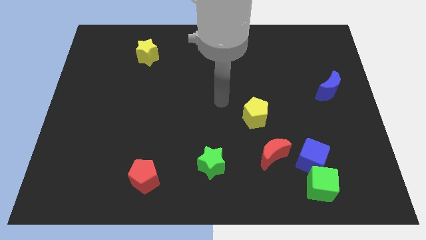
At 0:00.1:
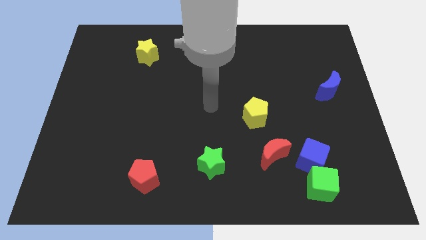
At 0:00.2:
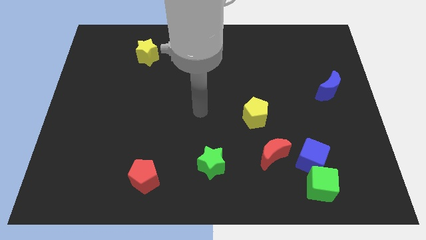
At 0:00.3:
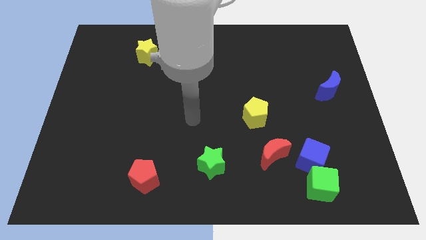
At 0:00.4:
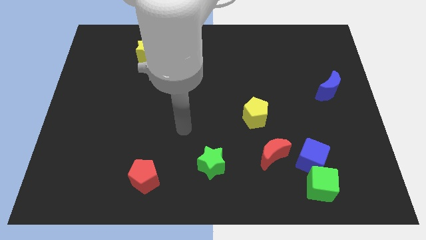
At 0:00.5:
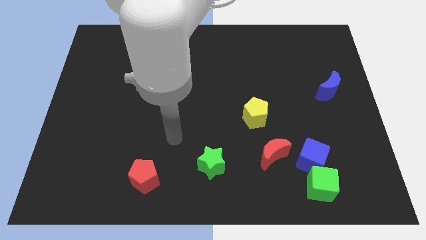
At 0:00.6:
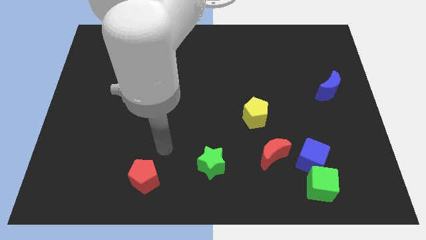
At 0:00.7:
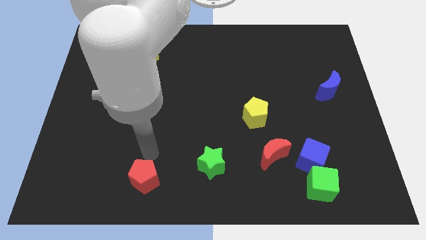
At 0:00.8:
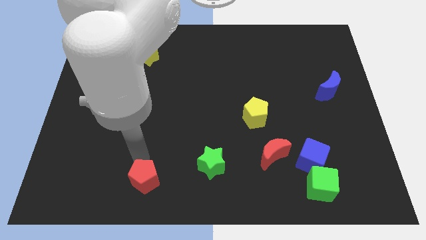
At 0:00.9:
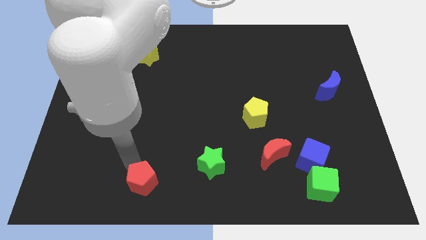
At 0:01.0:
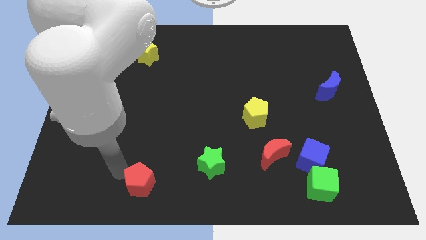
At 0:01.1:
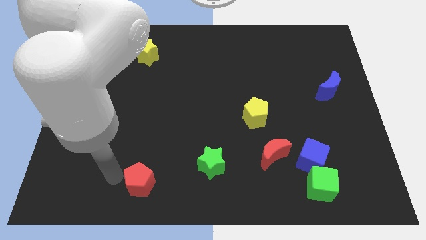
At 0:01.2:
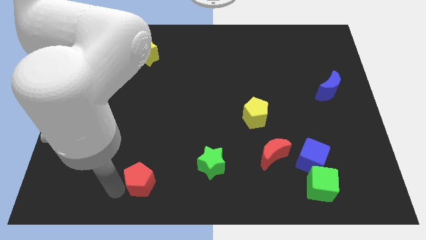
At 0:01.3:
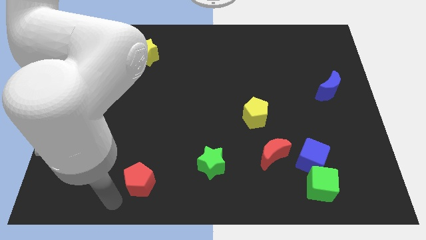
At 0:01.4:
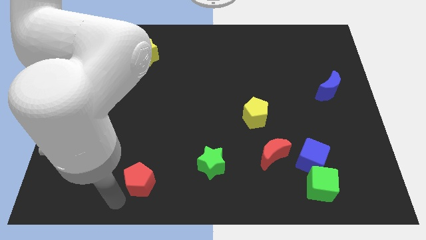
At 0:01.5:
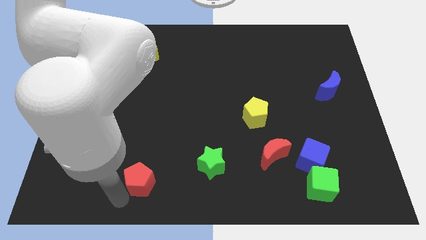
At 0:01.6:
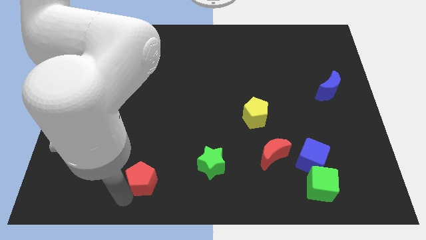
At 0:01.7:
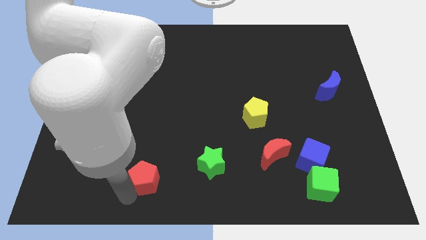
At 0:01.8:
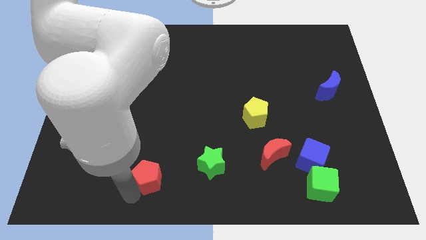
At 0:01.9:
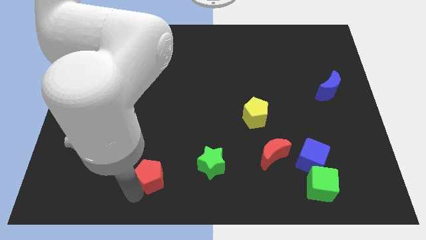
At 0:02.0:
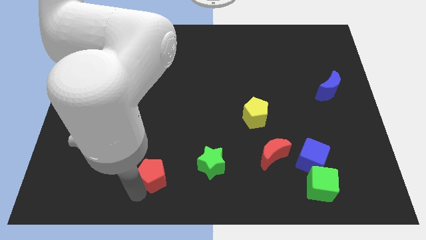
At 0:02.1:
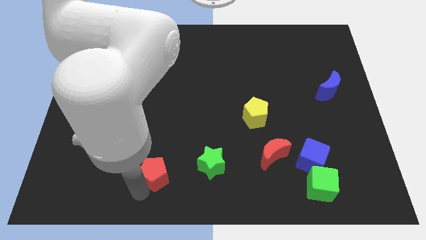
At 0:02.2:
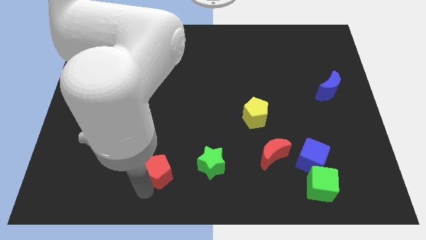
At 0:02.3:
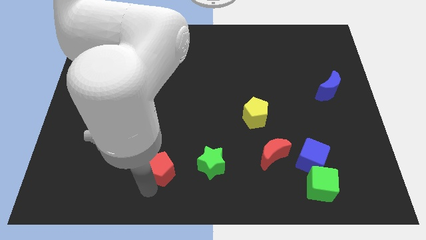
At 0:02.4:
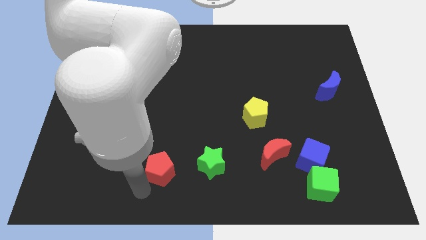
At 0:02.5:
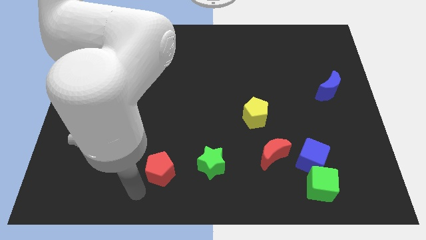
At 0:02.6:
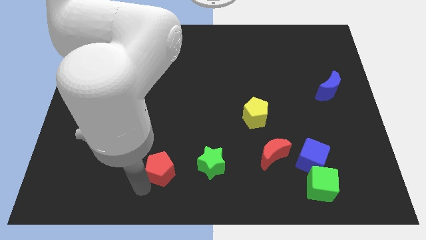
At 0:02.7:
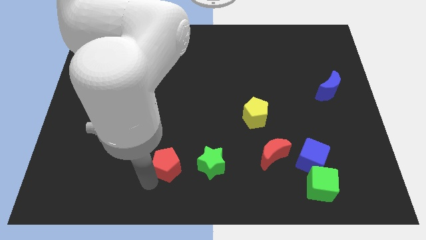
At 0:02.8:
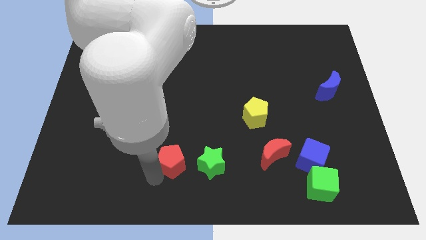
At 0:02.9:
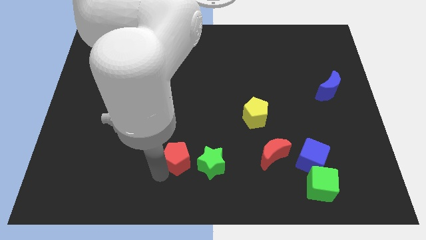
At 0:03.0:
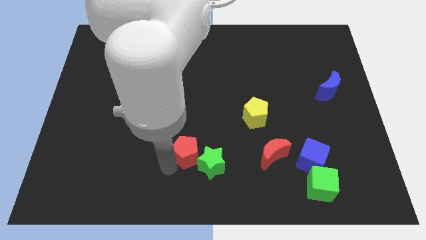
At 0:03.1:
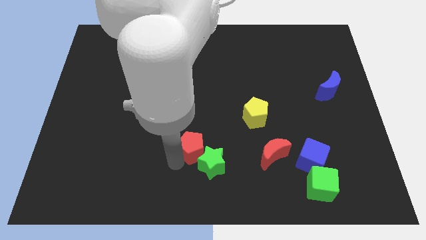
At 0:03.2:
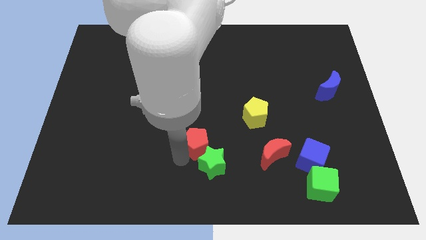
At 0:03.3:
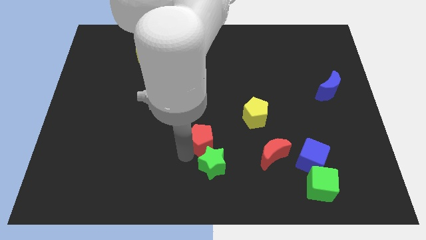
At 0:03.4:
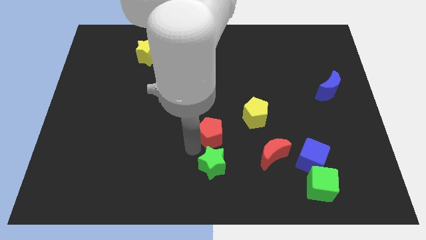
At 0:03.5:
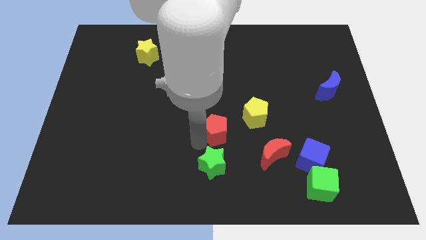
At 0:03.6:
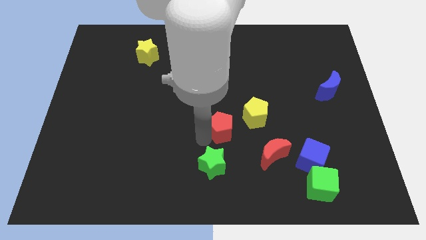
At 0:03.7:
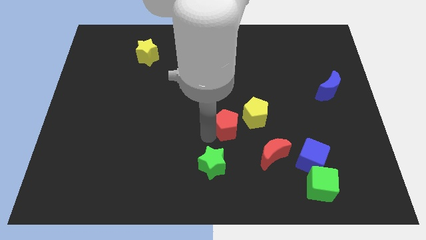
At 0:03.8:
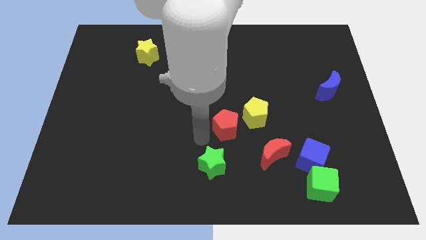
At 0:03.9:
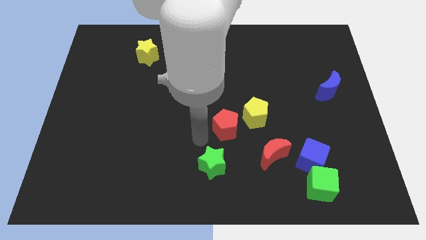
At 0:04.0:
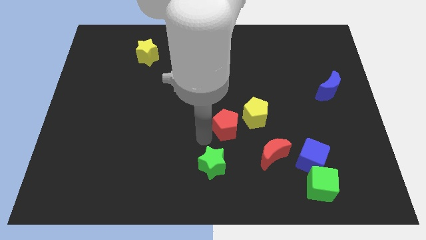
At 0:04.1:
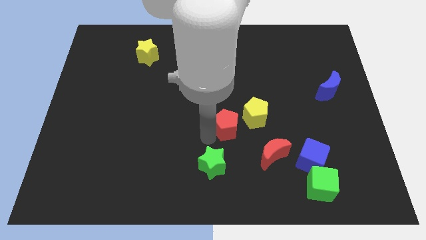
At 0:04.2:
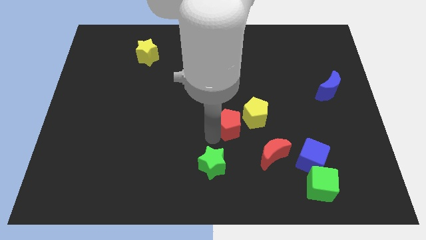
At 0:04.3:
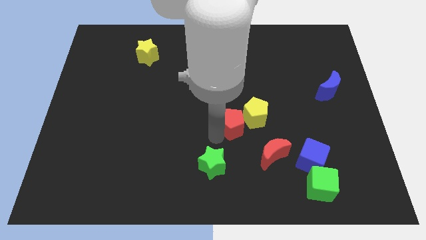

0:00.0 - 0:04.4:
slide the red pentagon to the yellow pentagon

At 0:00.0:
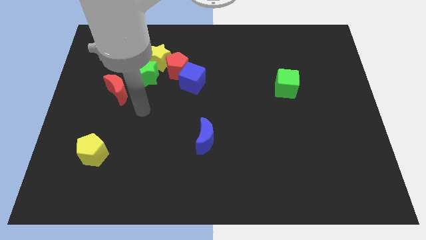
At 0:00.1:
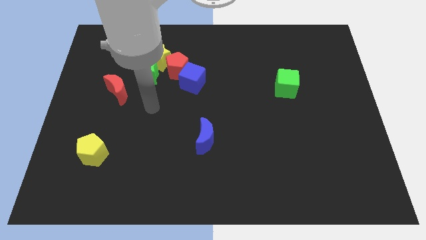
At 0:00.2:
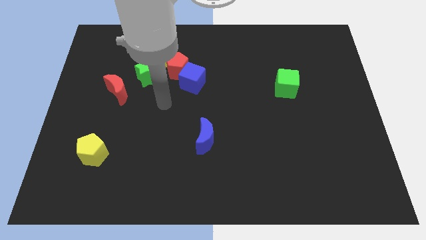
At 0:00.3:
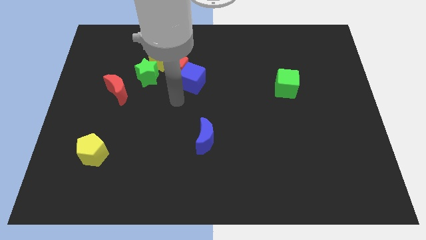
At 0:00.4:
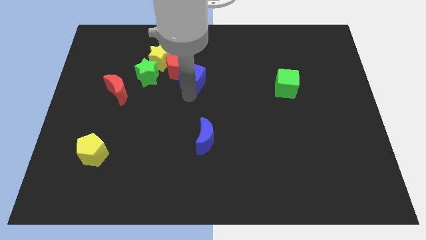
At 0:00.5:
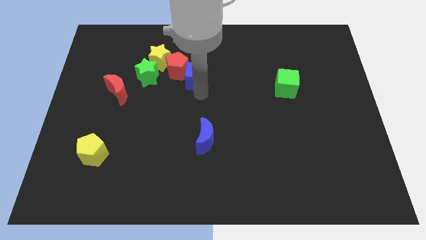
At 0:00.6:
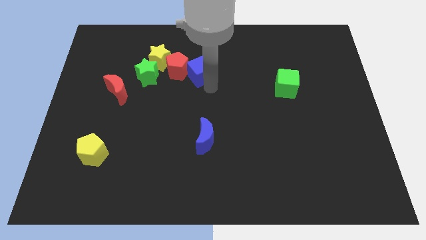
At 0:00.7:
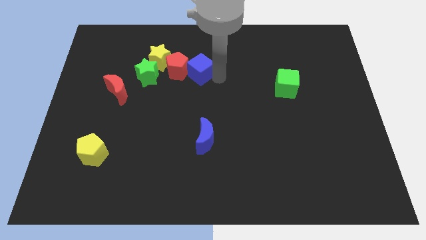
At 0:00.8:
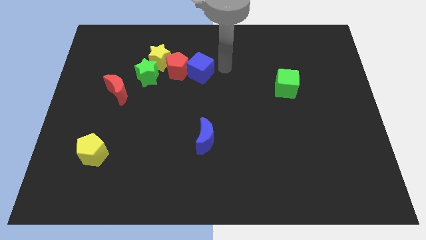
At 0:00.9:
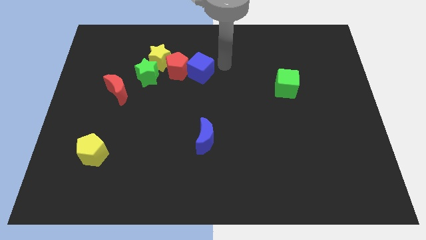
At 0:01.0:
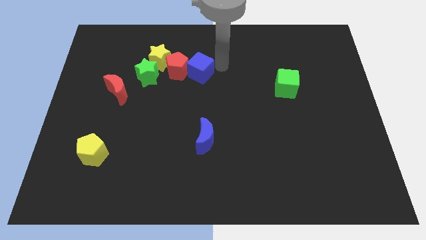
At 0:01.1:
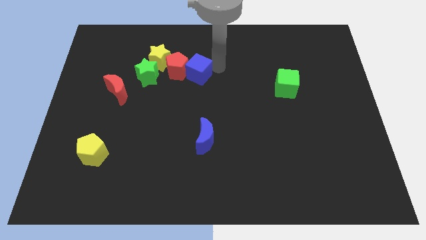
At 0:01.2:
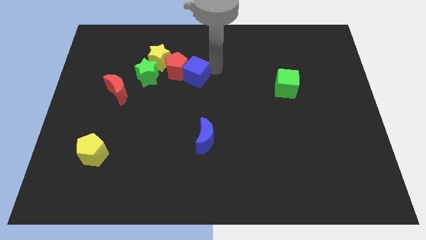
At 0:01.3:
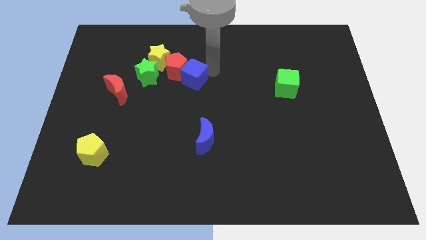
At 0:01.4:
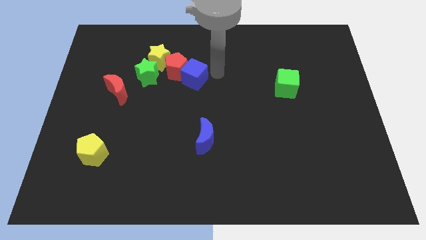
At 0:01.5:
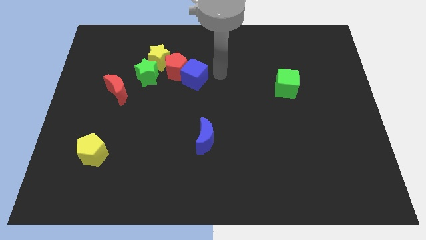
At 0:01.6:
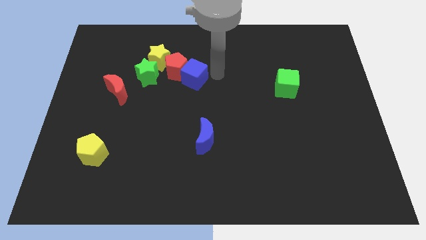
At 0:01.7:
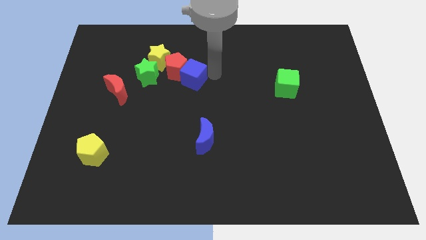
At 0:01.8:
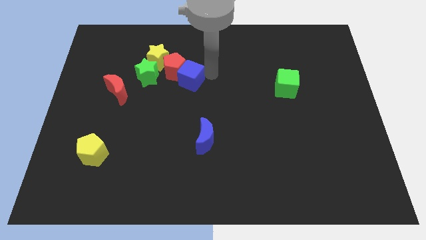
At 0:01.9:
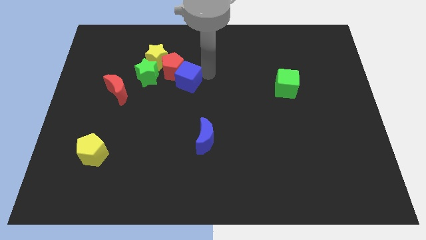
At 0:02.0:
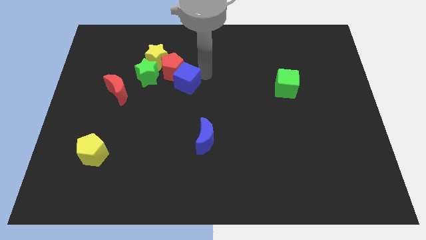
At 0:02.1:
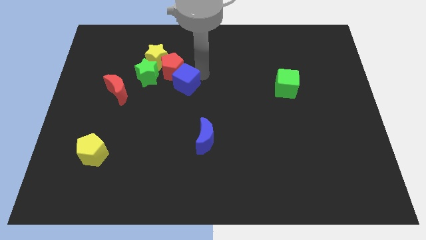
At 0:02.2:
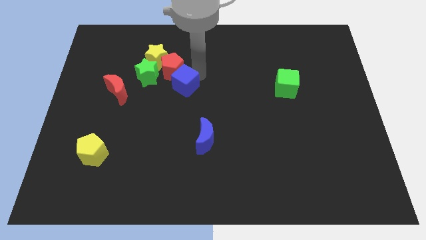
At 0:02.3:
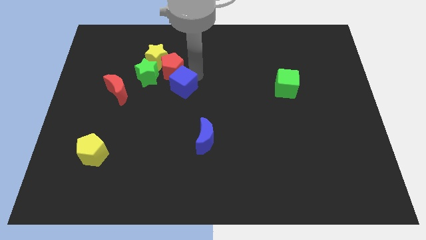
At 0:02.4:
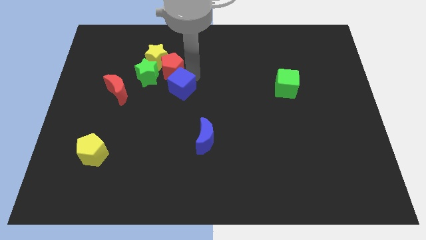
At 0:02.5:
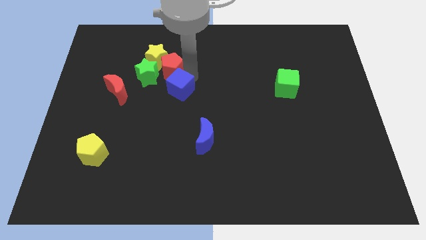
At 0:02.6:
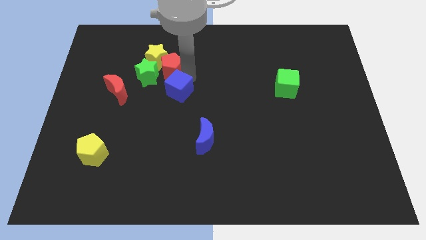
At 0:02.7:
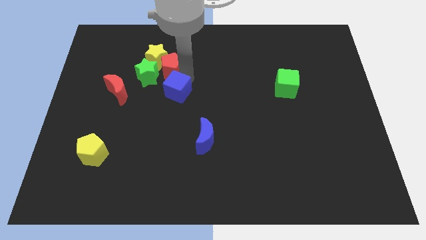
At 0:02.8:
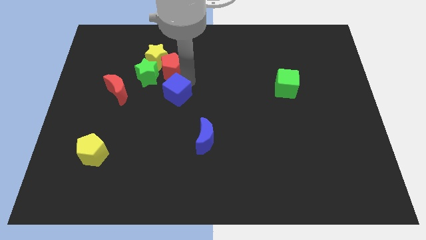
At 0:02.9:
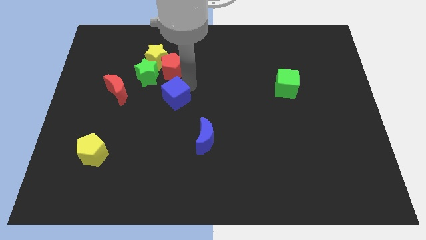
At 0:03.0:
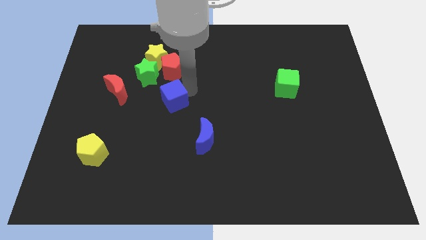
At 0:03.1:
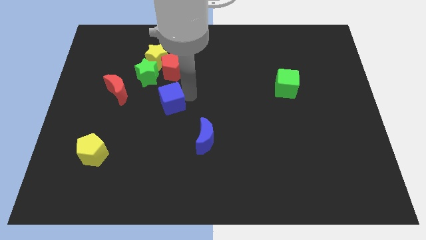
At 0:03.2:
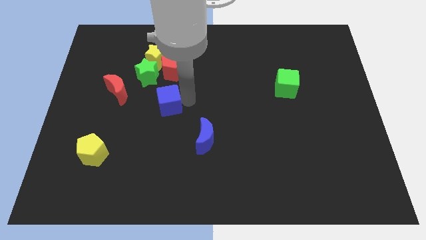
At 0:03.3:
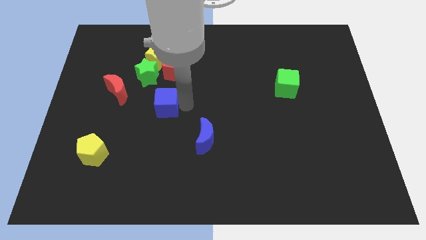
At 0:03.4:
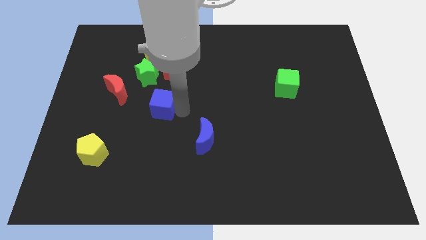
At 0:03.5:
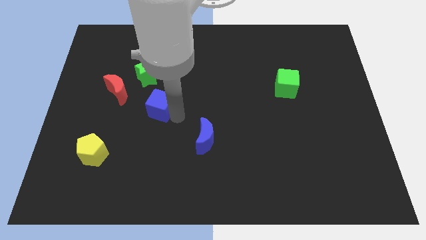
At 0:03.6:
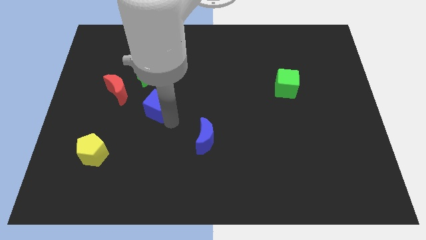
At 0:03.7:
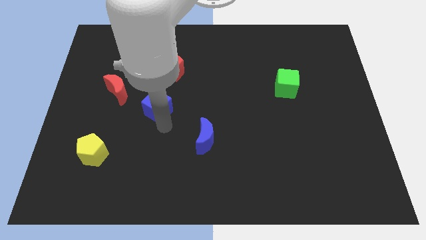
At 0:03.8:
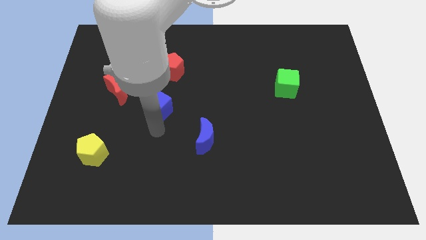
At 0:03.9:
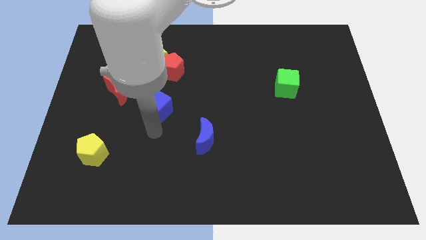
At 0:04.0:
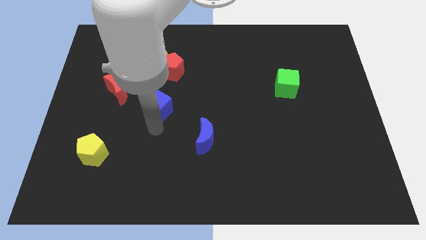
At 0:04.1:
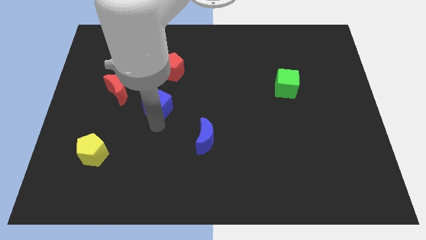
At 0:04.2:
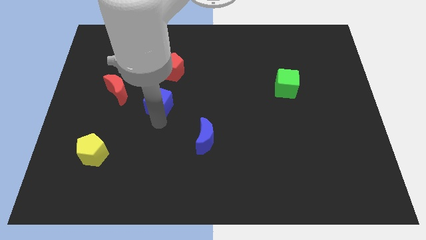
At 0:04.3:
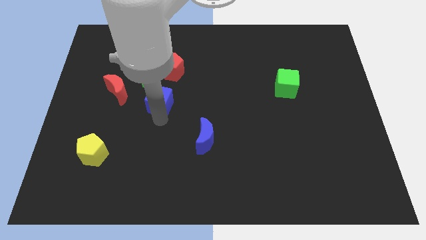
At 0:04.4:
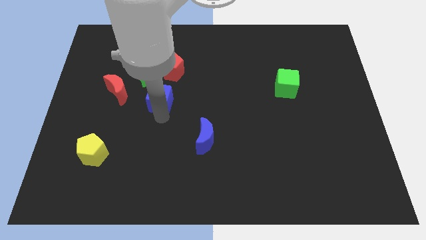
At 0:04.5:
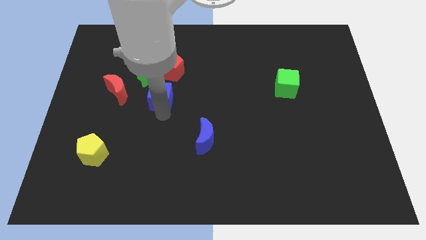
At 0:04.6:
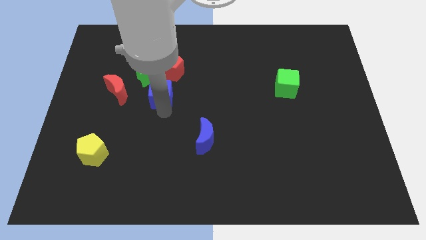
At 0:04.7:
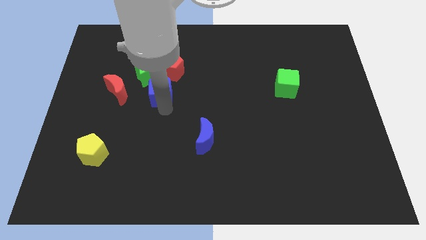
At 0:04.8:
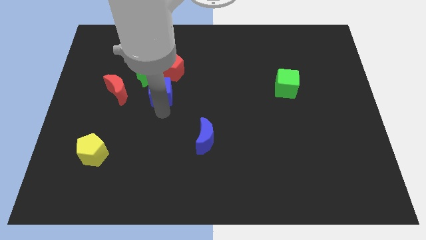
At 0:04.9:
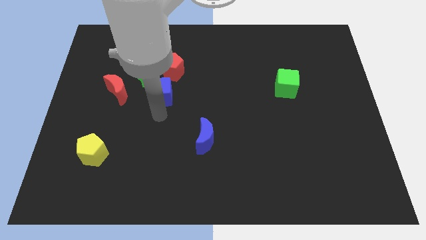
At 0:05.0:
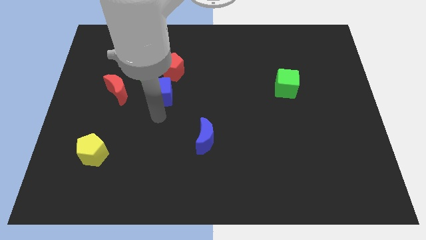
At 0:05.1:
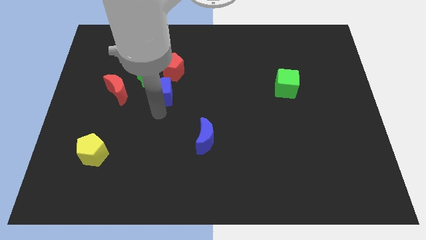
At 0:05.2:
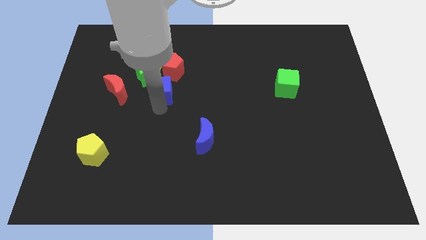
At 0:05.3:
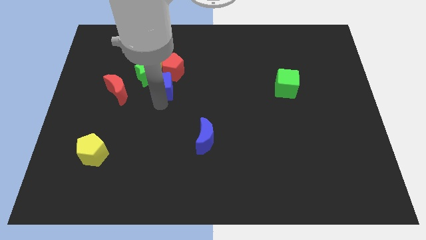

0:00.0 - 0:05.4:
move the blue cube close to the green star
